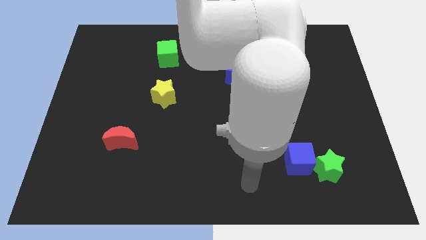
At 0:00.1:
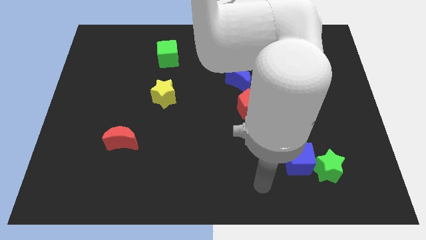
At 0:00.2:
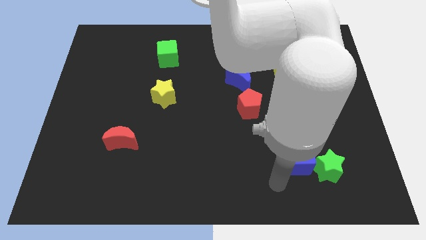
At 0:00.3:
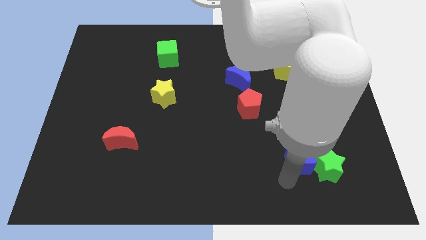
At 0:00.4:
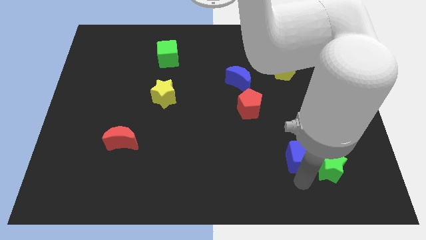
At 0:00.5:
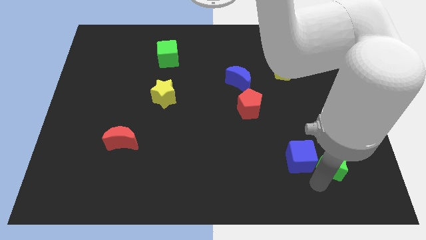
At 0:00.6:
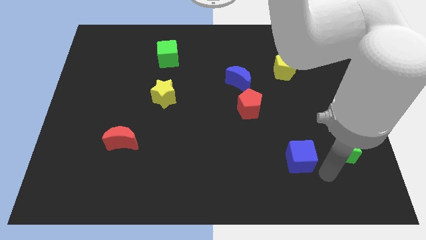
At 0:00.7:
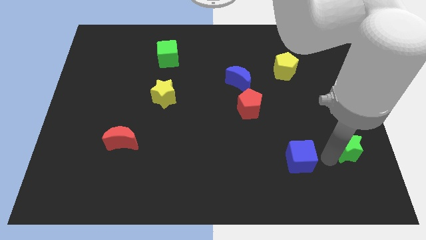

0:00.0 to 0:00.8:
separate the blue cube from the green star

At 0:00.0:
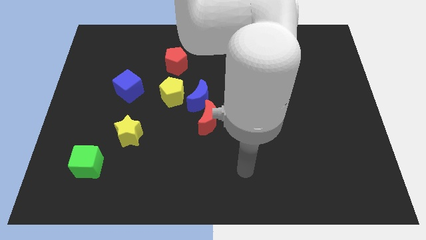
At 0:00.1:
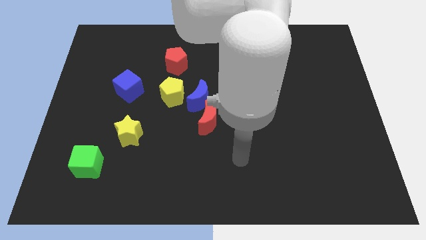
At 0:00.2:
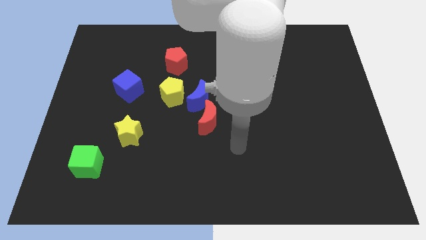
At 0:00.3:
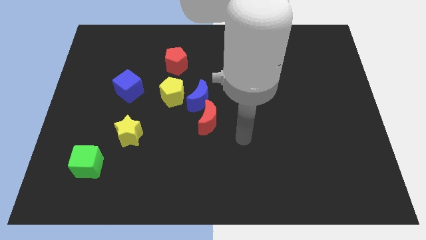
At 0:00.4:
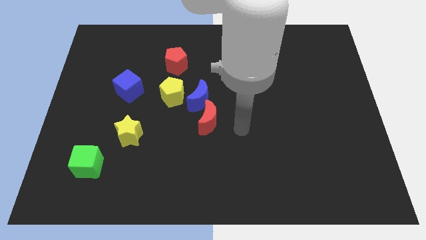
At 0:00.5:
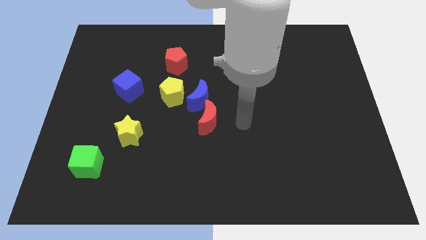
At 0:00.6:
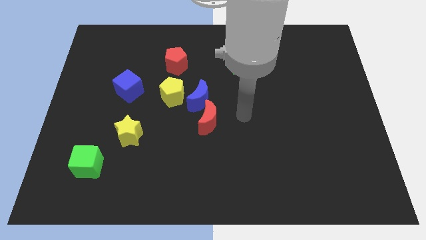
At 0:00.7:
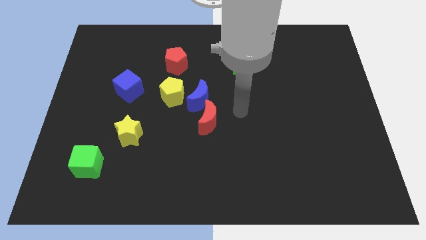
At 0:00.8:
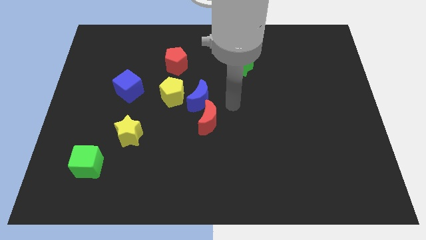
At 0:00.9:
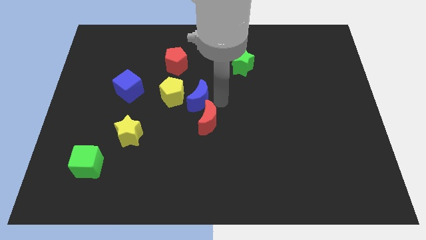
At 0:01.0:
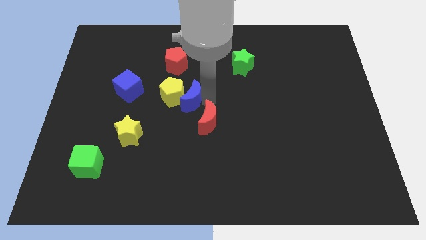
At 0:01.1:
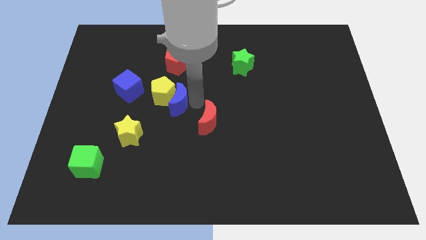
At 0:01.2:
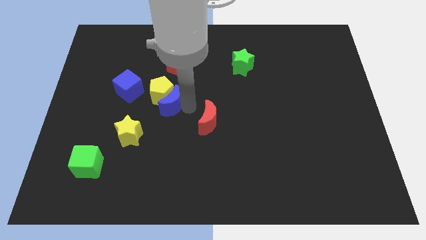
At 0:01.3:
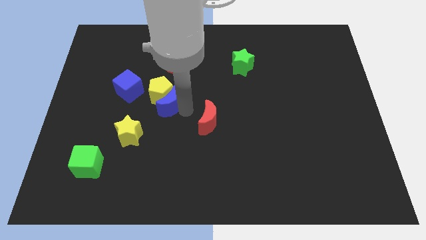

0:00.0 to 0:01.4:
pull the red moon apart from the blue moon

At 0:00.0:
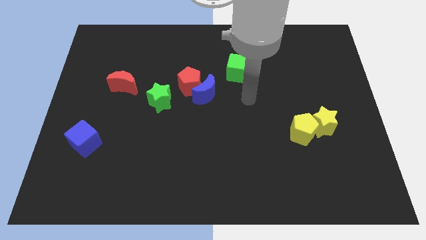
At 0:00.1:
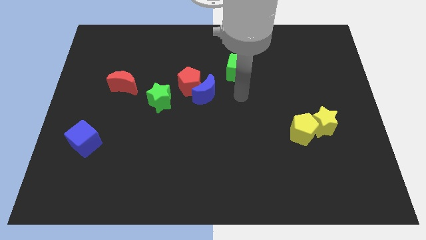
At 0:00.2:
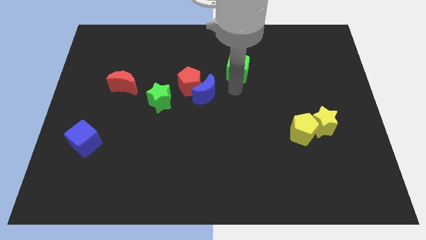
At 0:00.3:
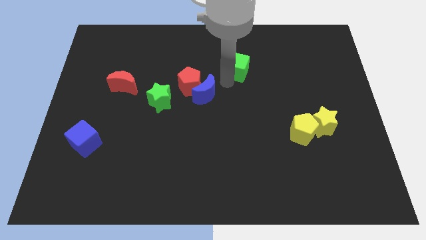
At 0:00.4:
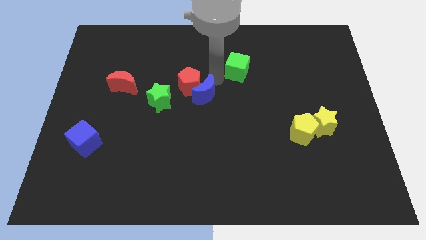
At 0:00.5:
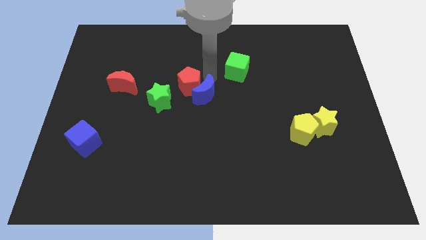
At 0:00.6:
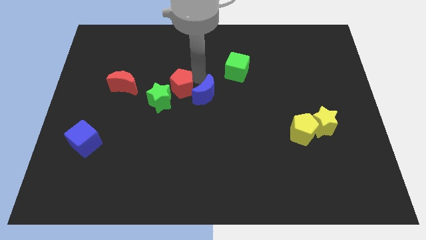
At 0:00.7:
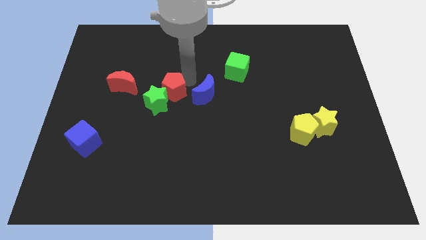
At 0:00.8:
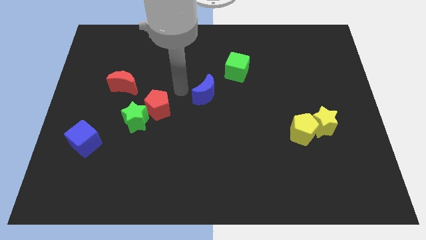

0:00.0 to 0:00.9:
separate the blue moon from the red pentagon

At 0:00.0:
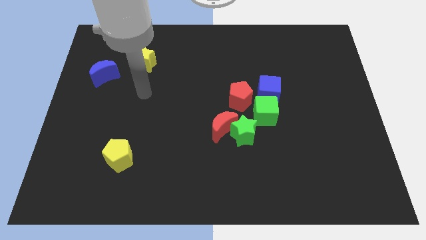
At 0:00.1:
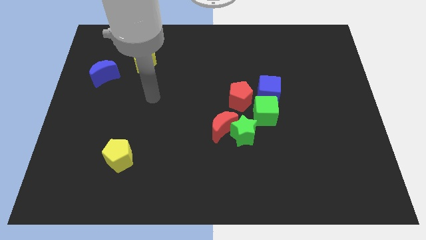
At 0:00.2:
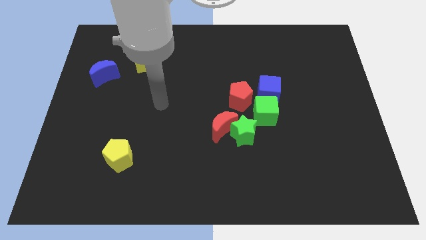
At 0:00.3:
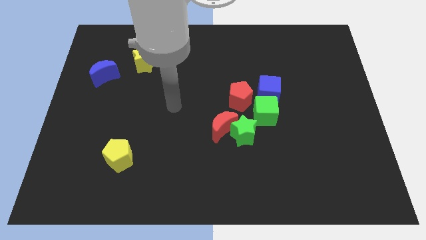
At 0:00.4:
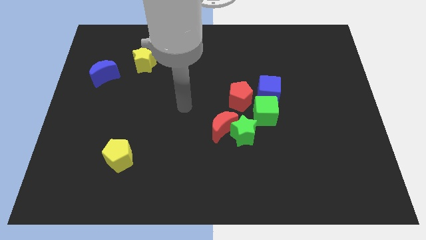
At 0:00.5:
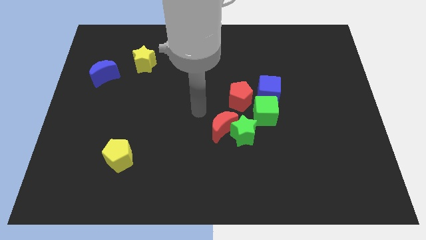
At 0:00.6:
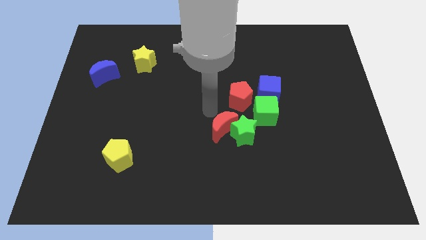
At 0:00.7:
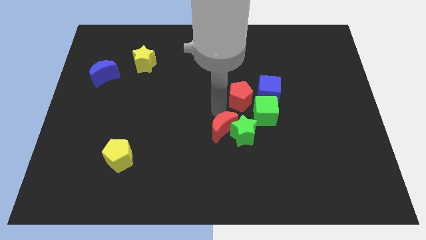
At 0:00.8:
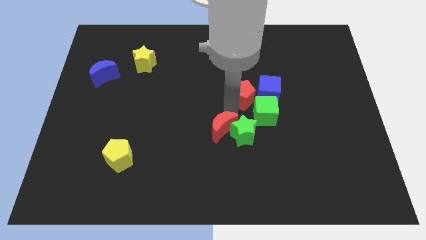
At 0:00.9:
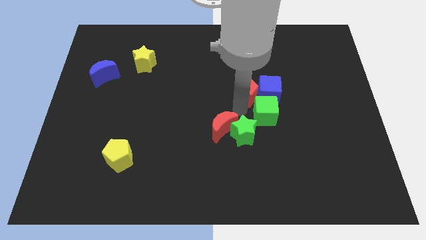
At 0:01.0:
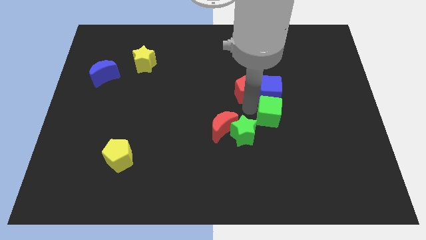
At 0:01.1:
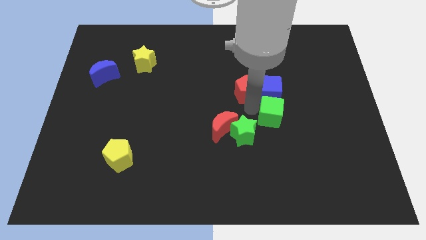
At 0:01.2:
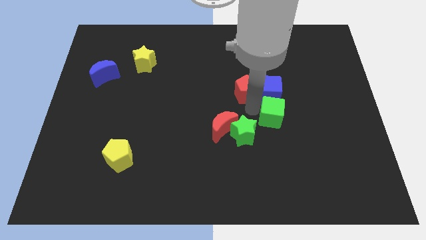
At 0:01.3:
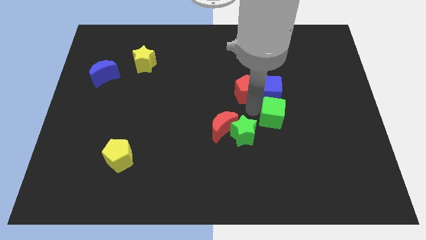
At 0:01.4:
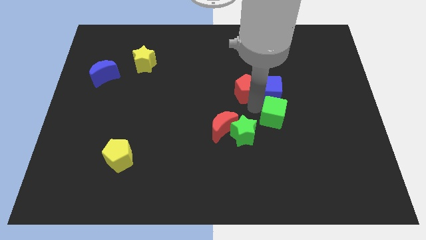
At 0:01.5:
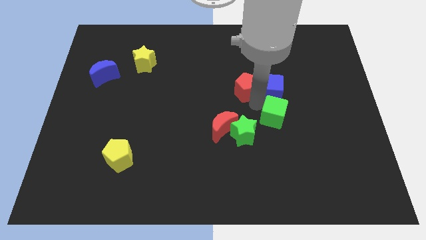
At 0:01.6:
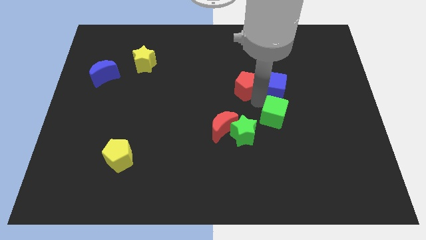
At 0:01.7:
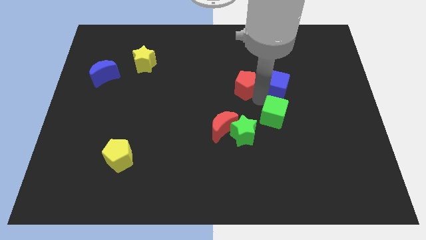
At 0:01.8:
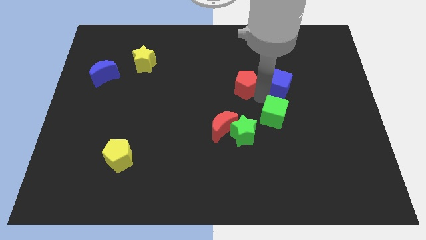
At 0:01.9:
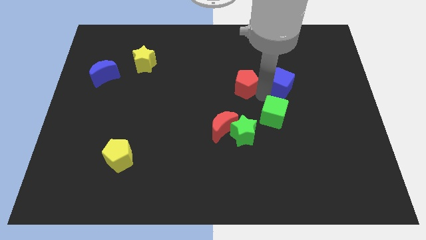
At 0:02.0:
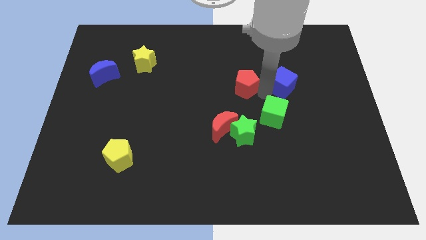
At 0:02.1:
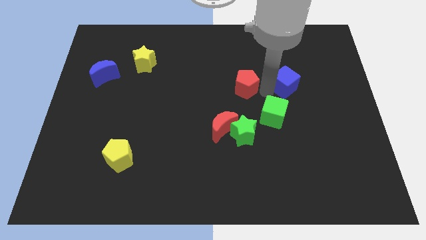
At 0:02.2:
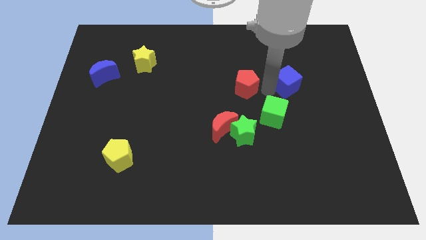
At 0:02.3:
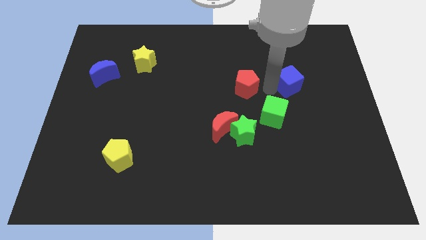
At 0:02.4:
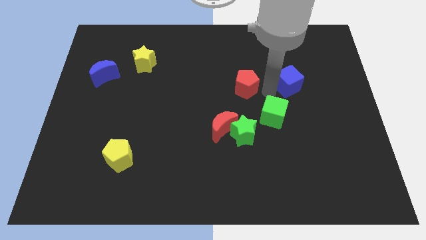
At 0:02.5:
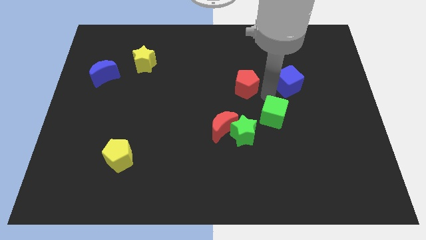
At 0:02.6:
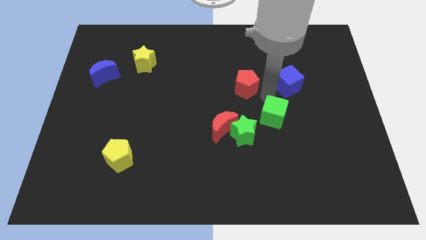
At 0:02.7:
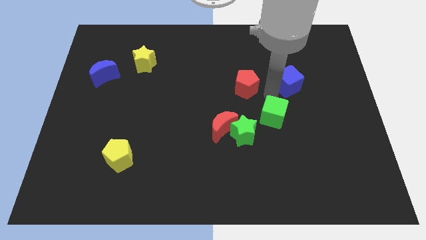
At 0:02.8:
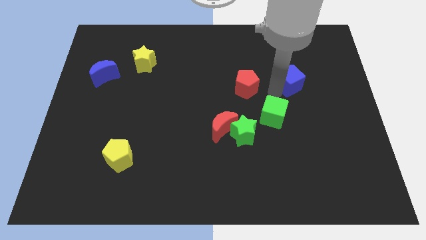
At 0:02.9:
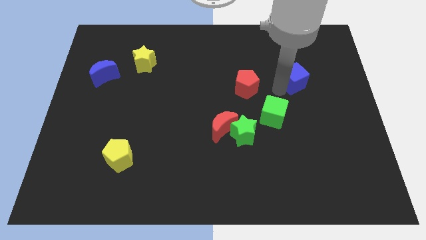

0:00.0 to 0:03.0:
move the blue cube away from the green cube and red pentagon

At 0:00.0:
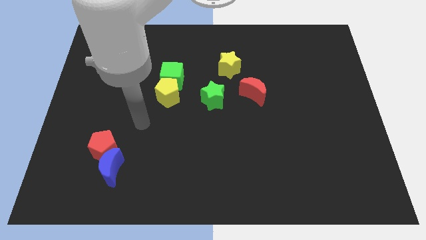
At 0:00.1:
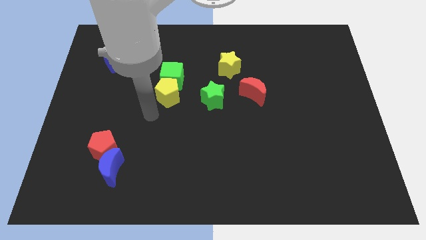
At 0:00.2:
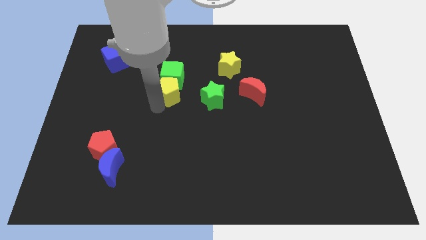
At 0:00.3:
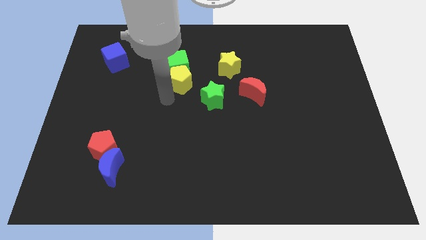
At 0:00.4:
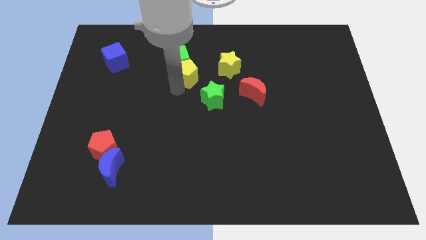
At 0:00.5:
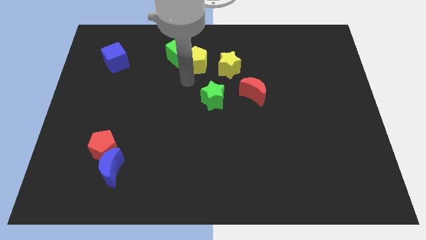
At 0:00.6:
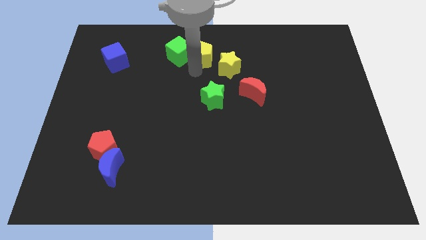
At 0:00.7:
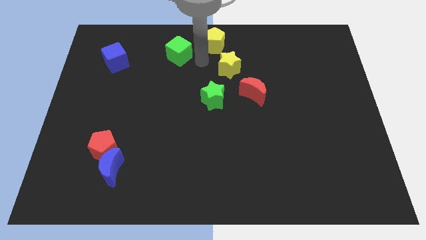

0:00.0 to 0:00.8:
separate the green cube from the yellow pentagon

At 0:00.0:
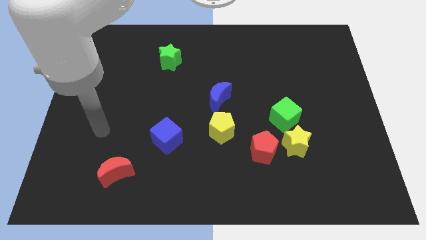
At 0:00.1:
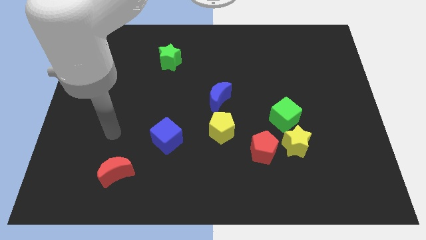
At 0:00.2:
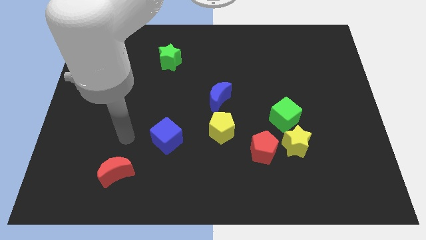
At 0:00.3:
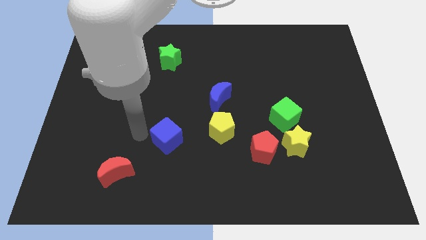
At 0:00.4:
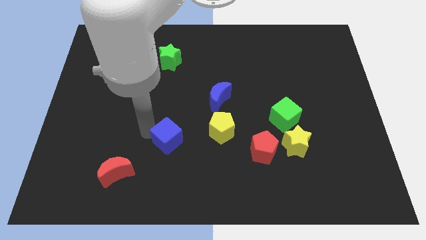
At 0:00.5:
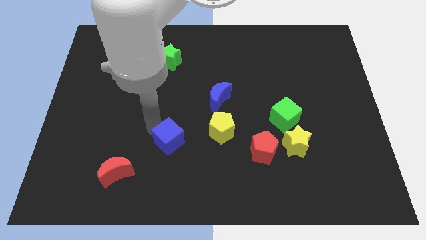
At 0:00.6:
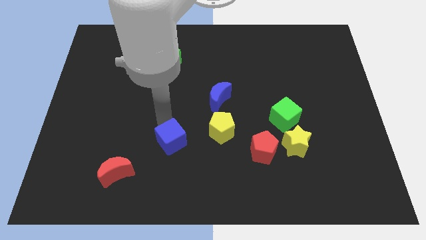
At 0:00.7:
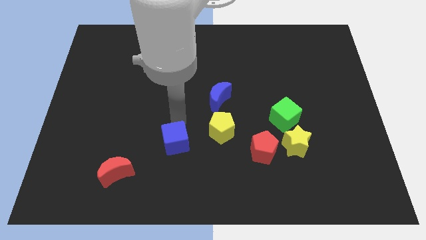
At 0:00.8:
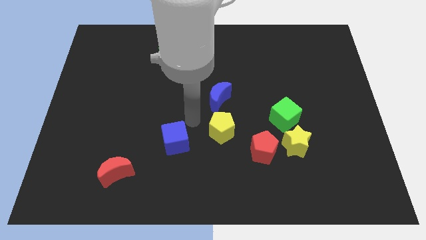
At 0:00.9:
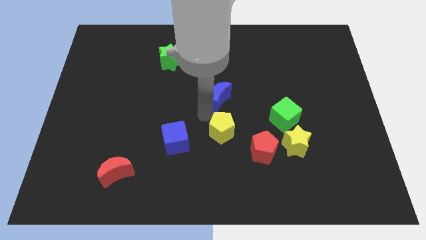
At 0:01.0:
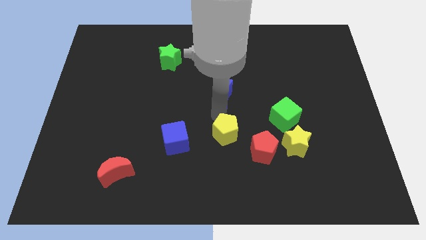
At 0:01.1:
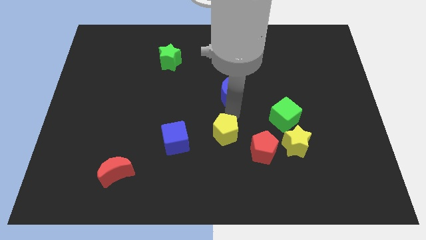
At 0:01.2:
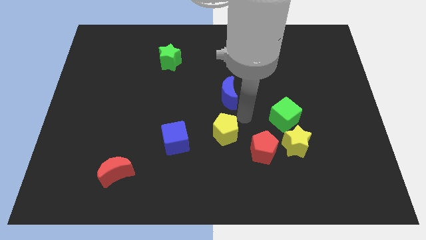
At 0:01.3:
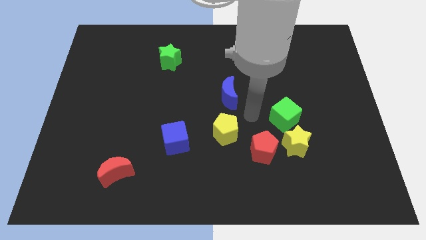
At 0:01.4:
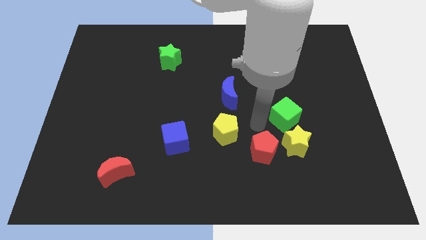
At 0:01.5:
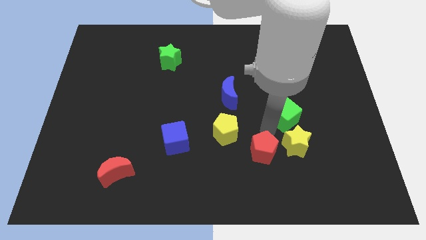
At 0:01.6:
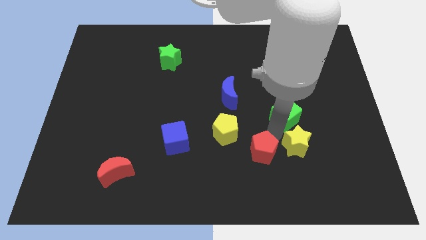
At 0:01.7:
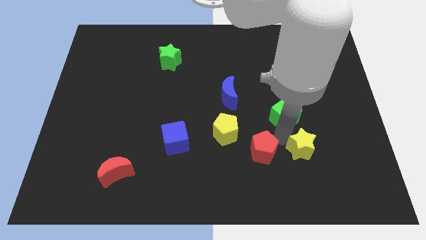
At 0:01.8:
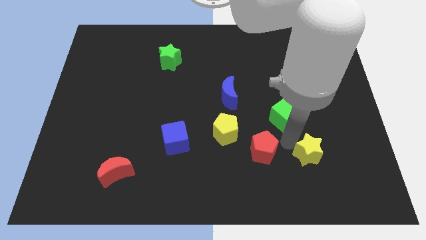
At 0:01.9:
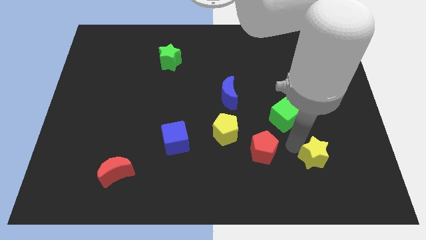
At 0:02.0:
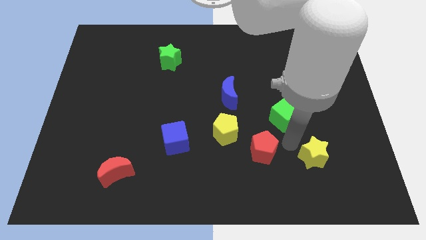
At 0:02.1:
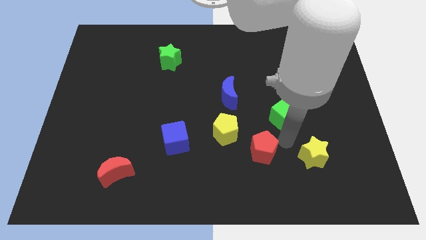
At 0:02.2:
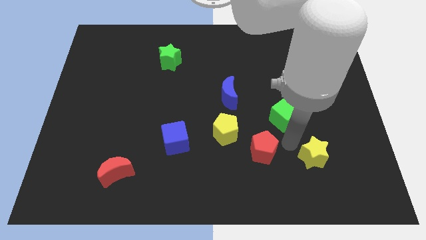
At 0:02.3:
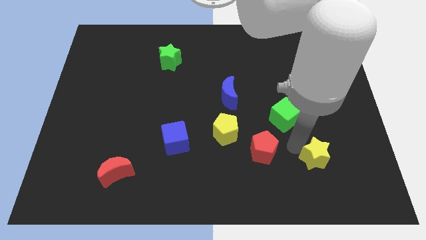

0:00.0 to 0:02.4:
move the yellow star away from the red pentagon and green cube
